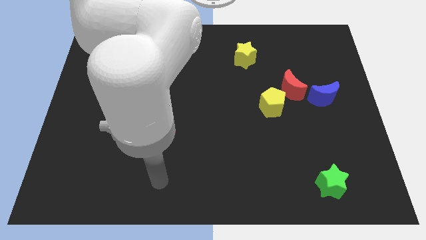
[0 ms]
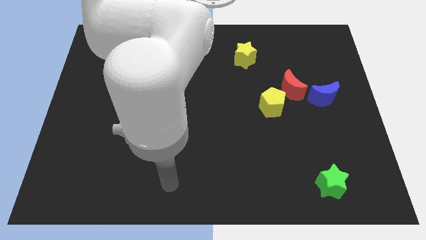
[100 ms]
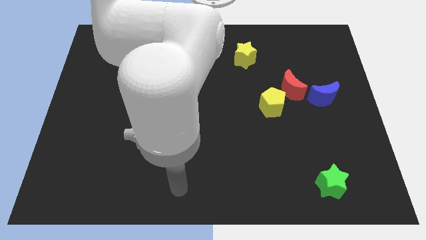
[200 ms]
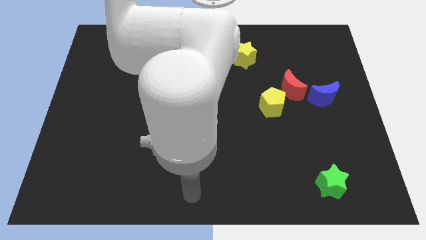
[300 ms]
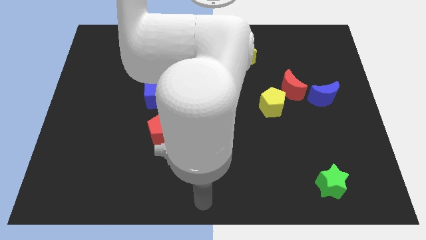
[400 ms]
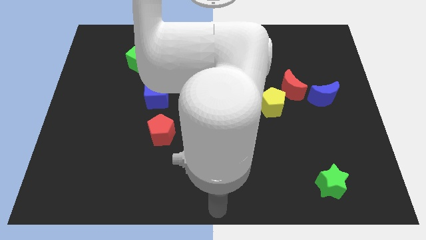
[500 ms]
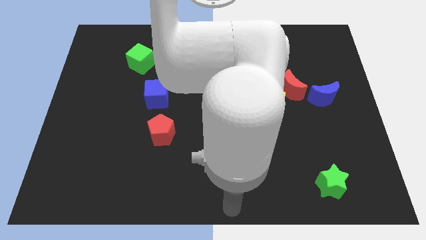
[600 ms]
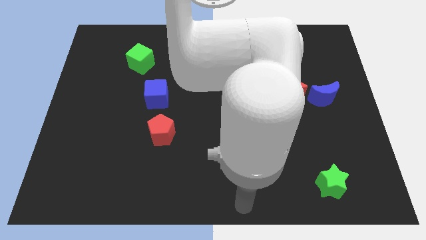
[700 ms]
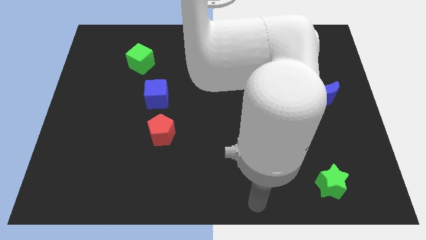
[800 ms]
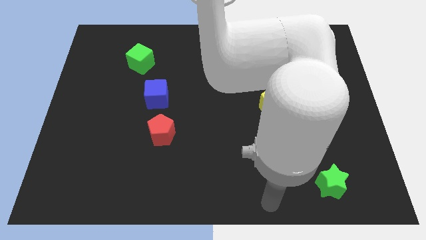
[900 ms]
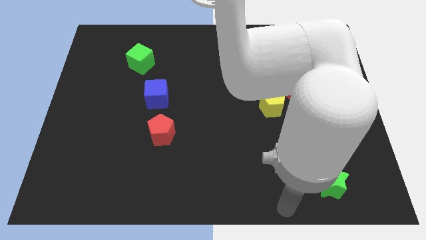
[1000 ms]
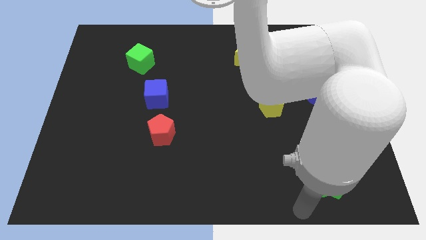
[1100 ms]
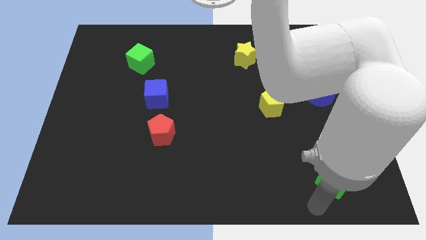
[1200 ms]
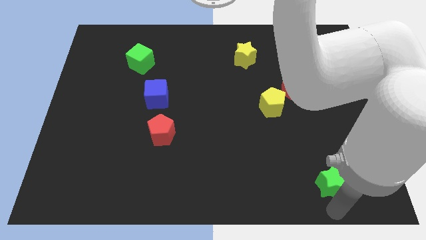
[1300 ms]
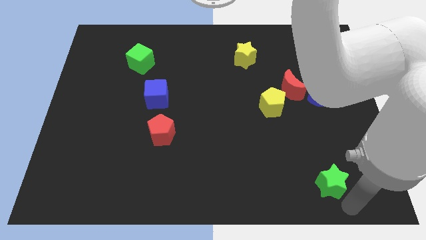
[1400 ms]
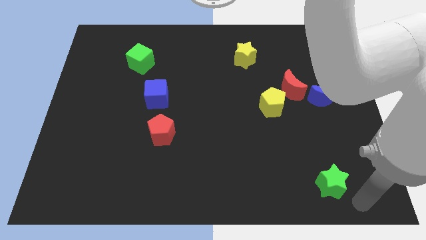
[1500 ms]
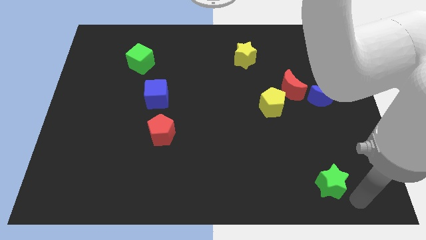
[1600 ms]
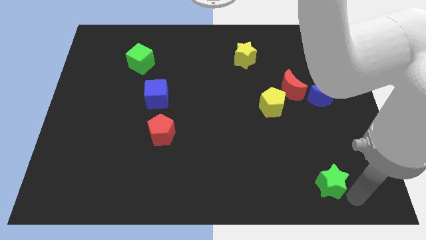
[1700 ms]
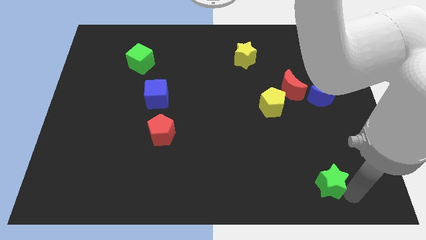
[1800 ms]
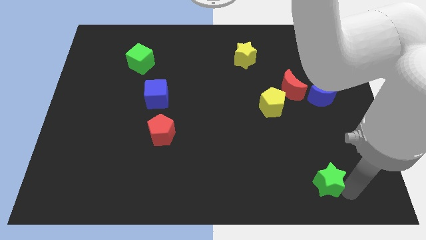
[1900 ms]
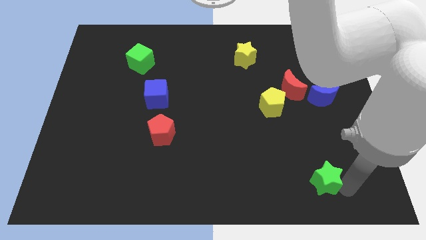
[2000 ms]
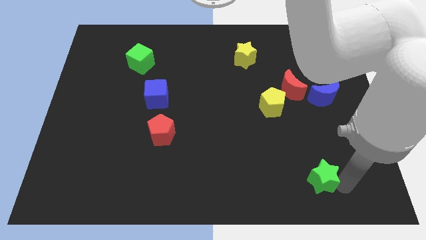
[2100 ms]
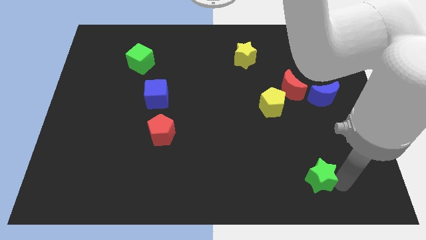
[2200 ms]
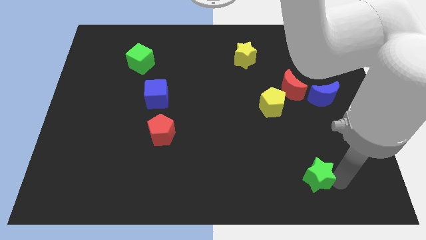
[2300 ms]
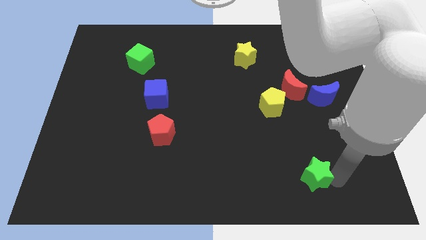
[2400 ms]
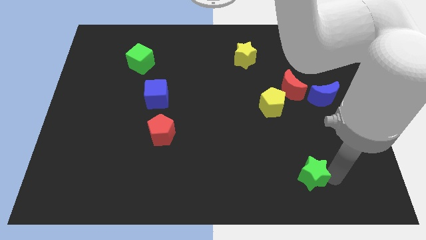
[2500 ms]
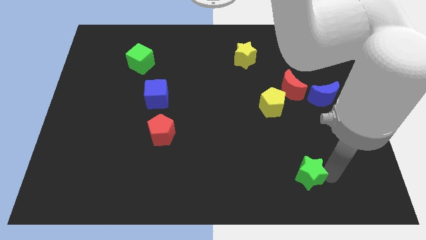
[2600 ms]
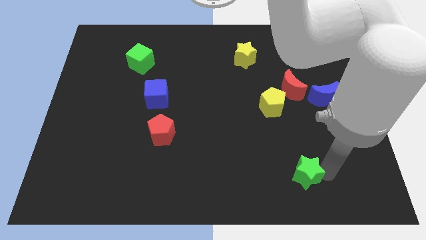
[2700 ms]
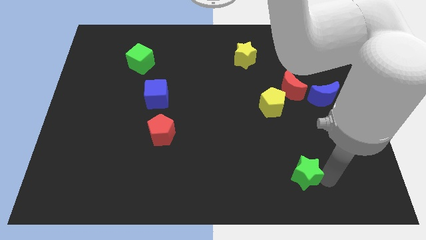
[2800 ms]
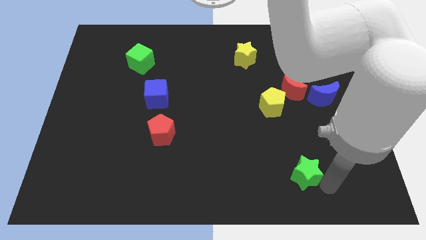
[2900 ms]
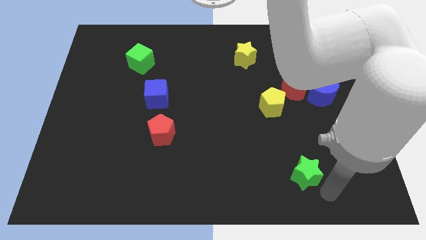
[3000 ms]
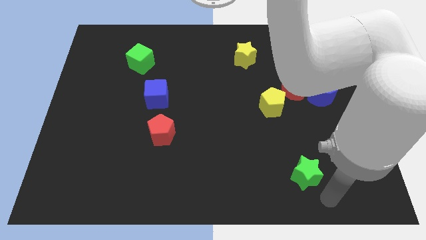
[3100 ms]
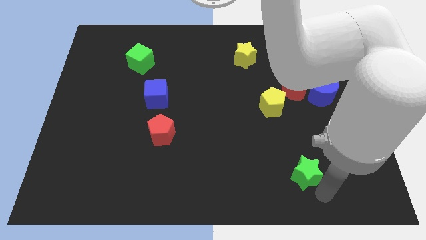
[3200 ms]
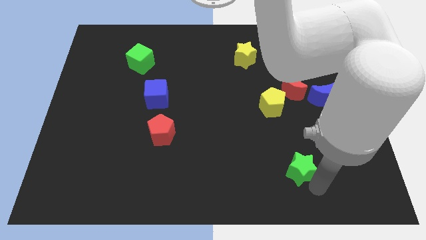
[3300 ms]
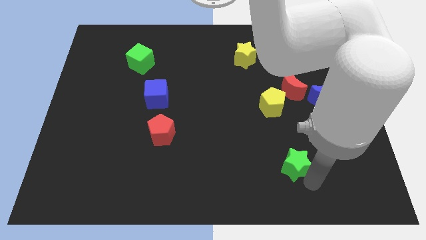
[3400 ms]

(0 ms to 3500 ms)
move the green star diagonally upwards and to the left slightly

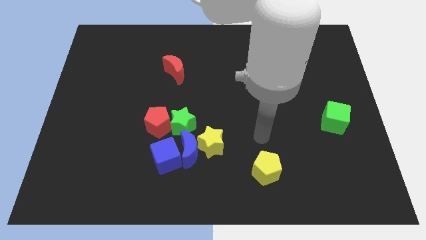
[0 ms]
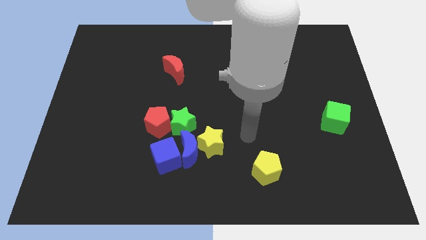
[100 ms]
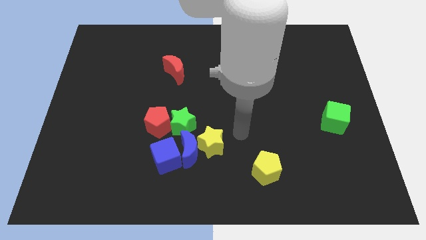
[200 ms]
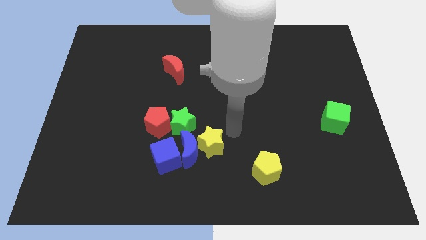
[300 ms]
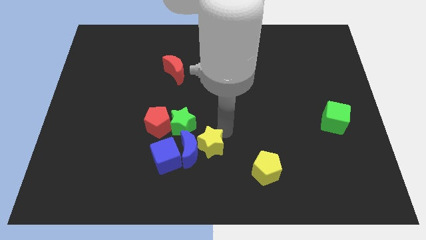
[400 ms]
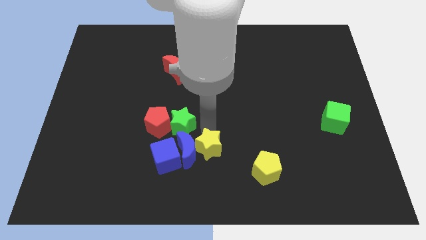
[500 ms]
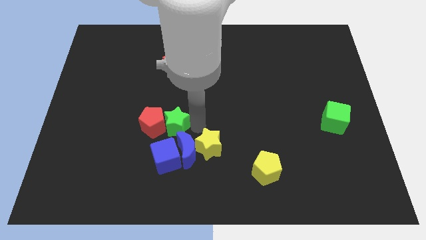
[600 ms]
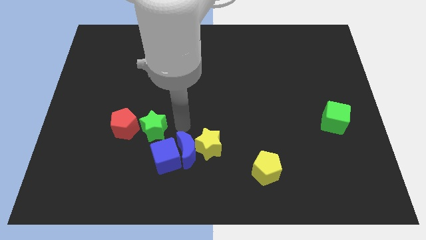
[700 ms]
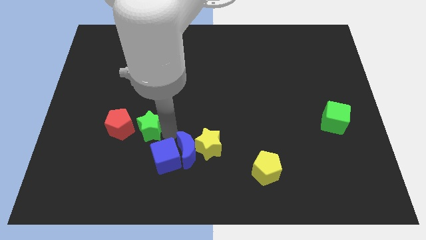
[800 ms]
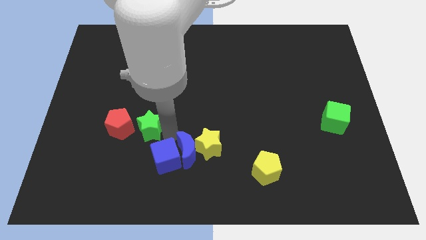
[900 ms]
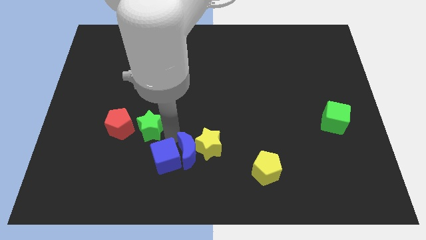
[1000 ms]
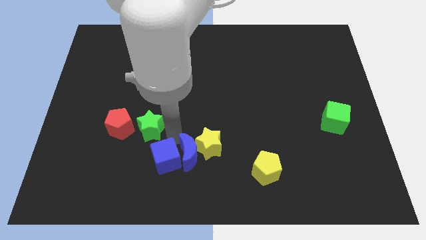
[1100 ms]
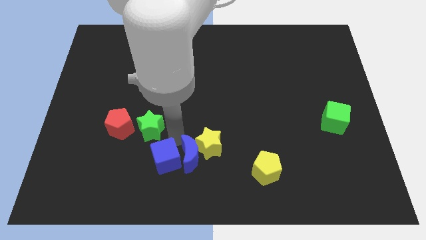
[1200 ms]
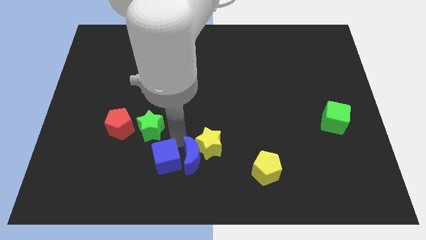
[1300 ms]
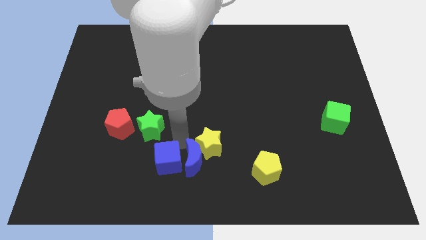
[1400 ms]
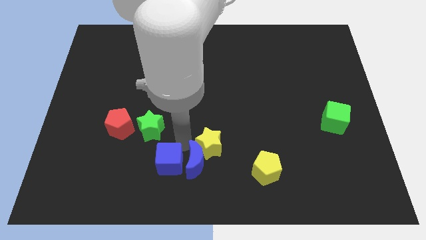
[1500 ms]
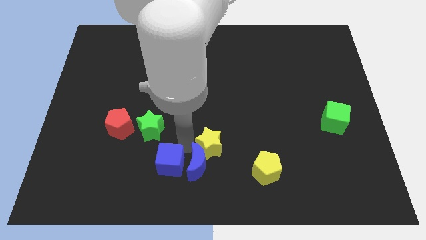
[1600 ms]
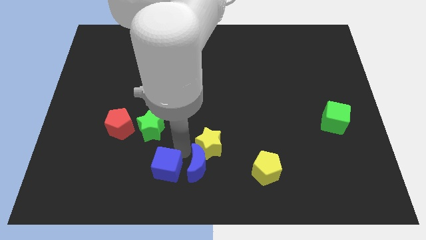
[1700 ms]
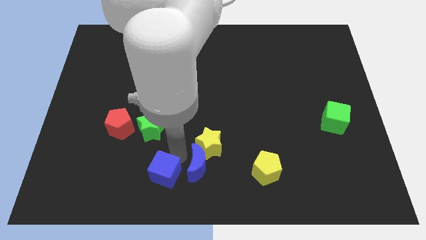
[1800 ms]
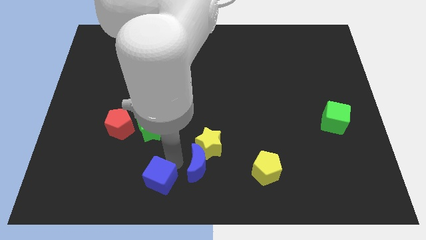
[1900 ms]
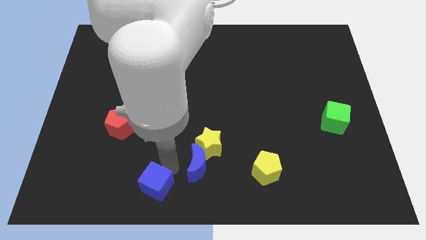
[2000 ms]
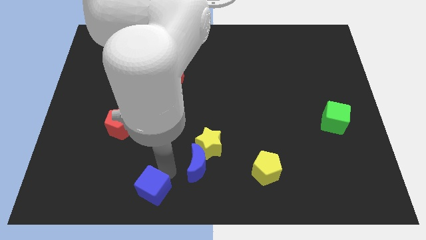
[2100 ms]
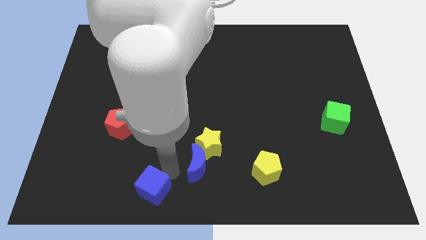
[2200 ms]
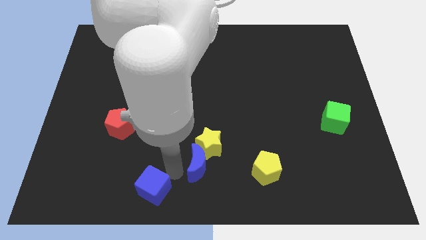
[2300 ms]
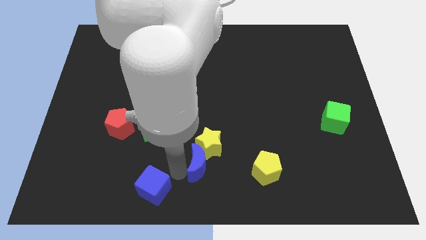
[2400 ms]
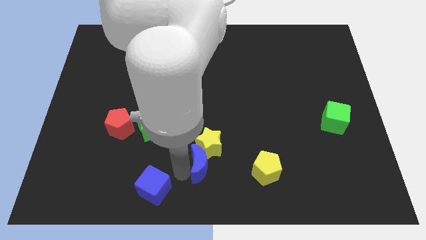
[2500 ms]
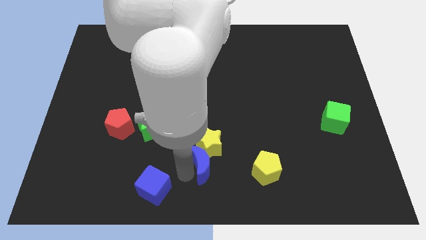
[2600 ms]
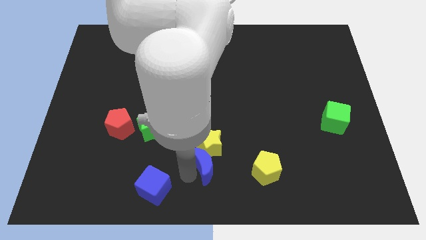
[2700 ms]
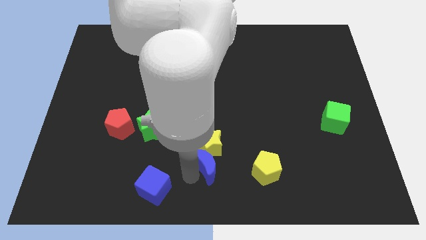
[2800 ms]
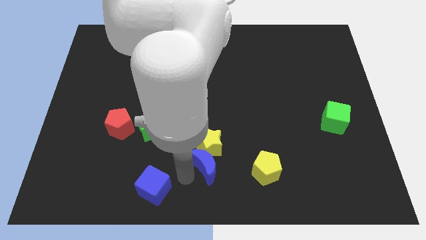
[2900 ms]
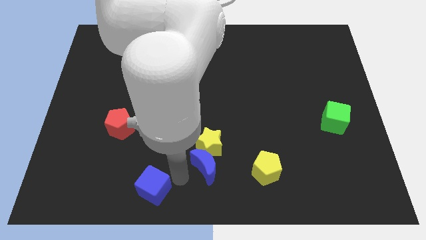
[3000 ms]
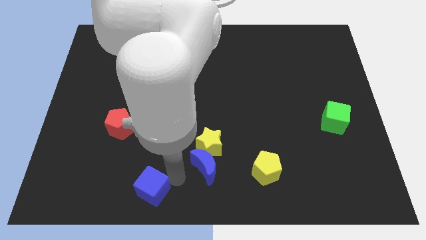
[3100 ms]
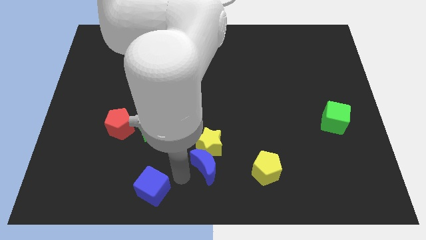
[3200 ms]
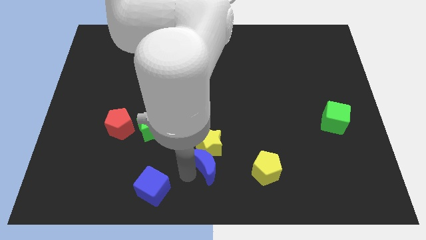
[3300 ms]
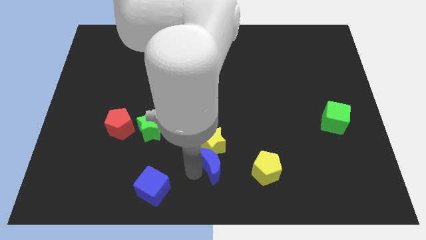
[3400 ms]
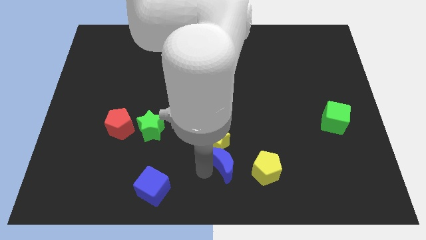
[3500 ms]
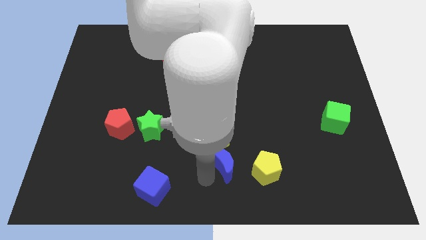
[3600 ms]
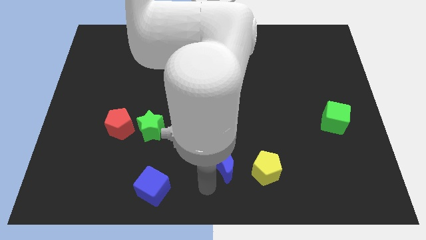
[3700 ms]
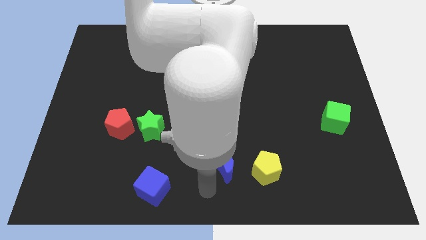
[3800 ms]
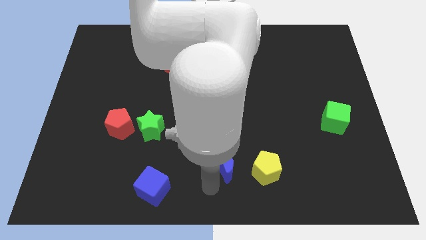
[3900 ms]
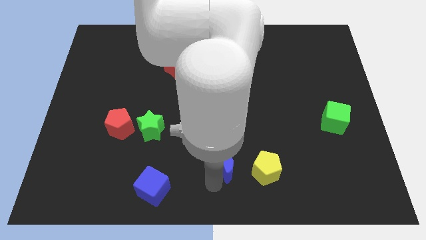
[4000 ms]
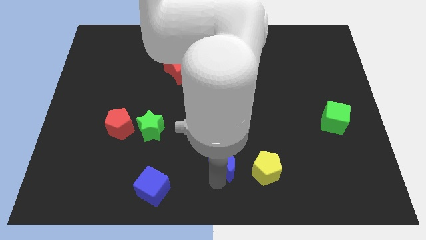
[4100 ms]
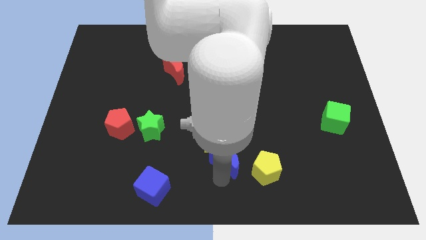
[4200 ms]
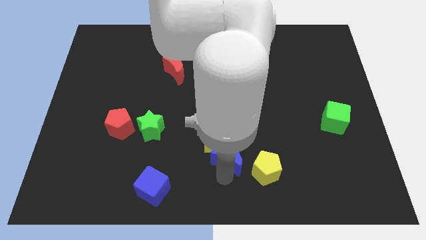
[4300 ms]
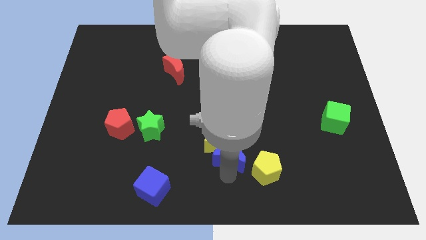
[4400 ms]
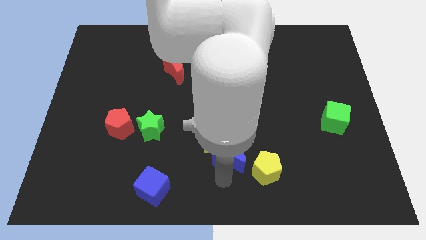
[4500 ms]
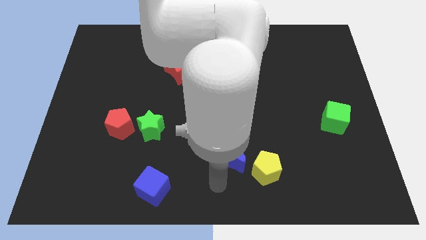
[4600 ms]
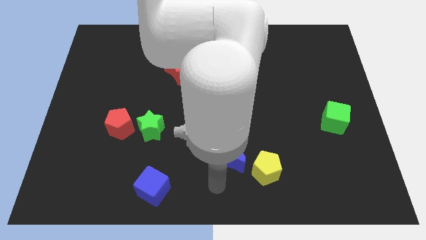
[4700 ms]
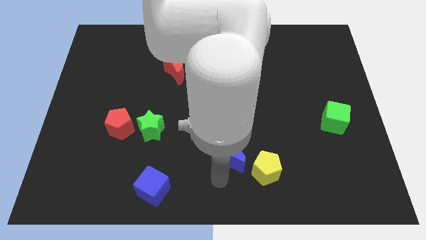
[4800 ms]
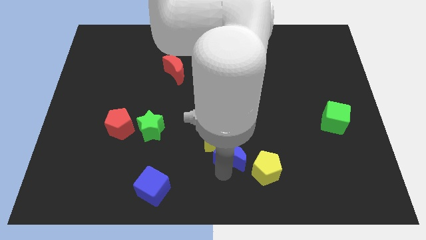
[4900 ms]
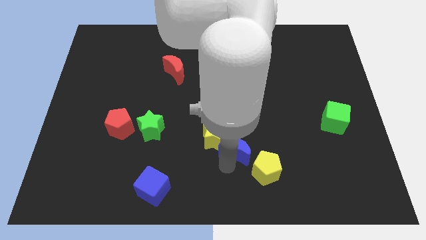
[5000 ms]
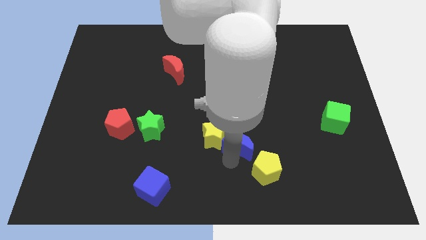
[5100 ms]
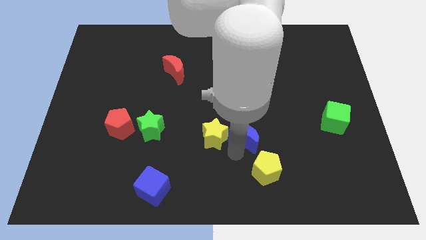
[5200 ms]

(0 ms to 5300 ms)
slide the blue moon a little up and to the right
